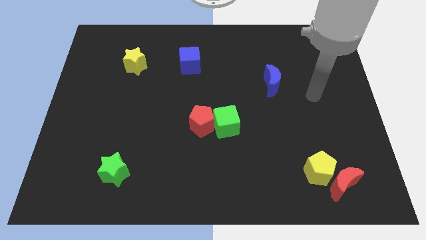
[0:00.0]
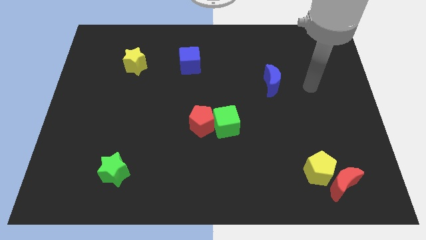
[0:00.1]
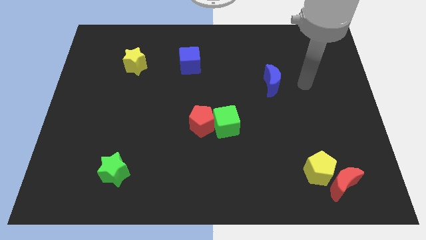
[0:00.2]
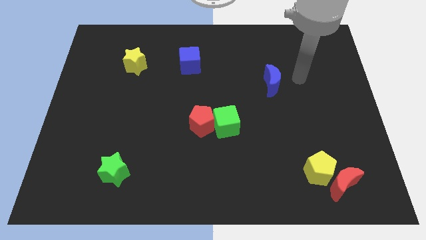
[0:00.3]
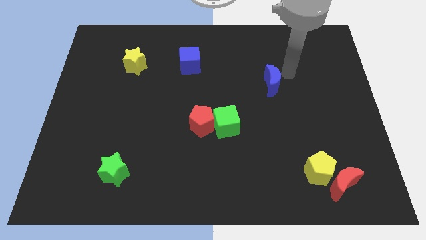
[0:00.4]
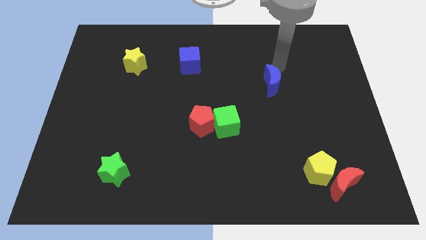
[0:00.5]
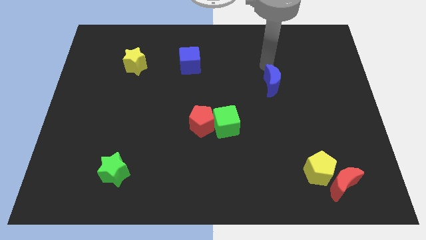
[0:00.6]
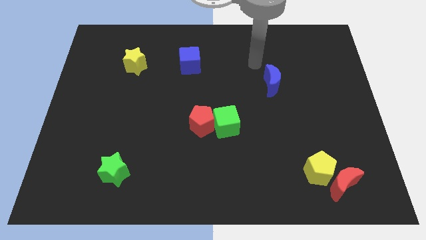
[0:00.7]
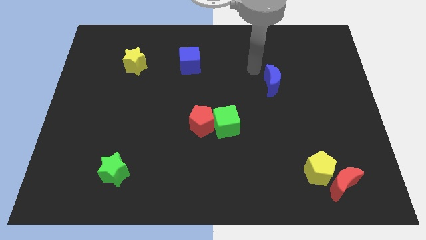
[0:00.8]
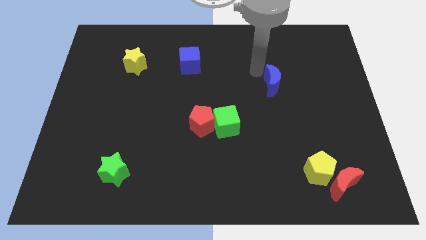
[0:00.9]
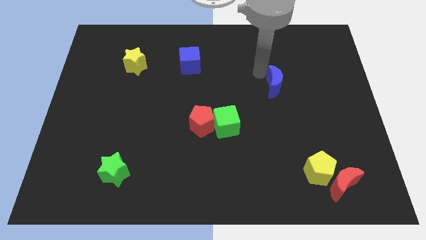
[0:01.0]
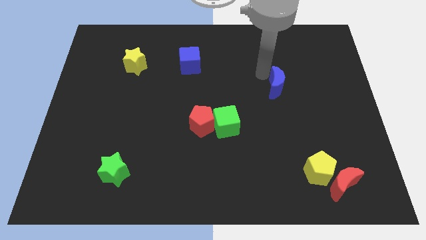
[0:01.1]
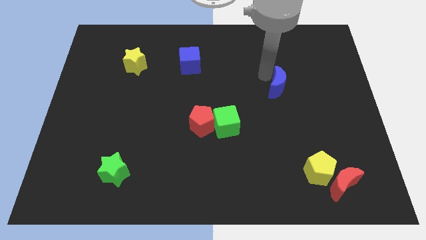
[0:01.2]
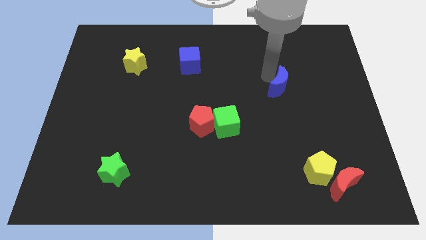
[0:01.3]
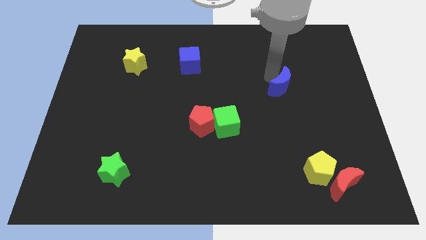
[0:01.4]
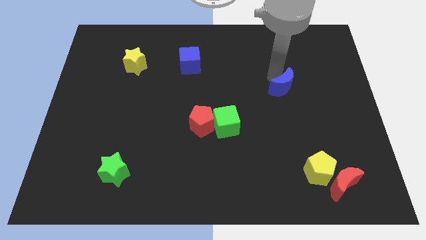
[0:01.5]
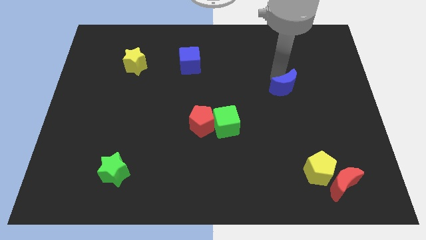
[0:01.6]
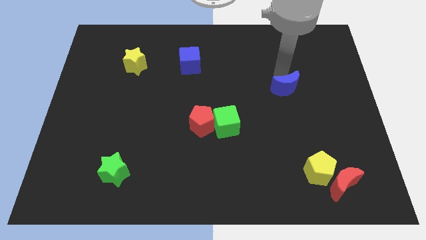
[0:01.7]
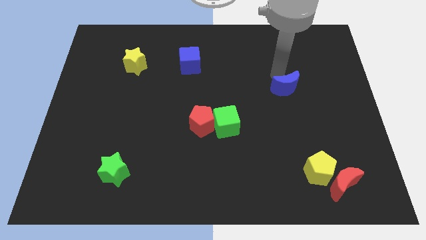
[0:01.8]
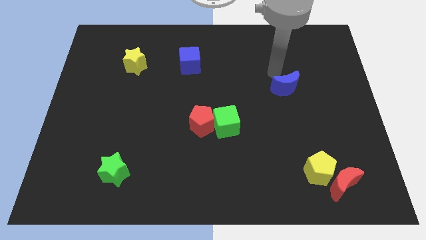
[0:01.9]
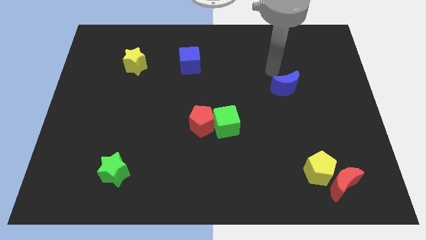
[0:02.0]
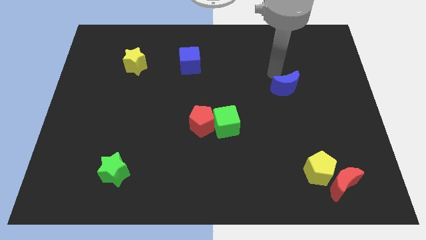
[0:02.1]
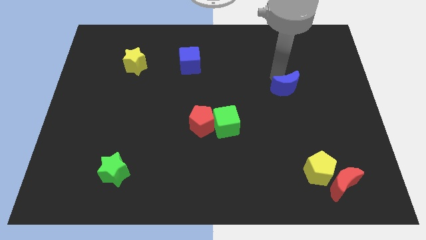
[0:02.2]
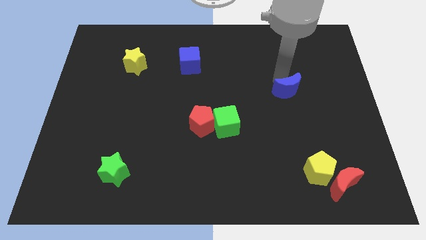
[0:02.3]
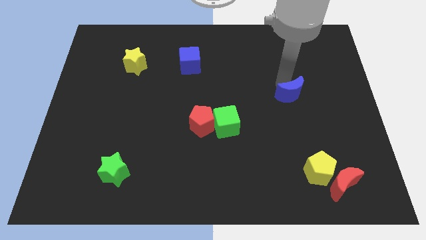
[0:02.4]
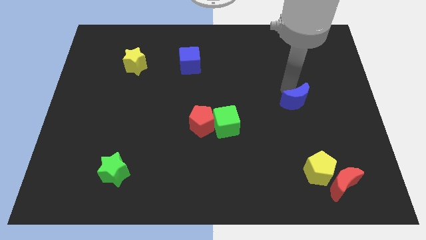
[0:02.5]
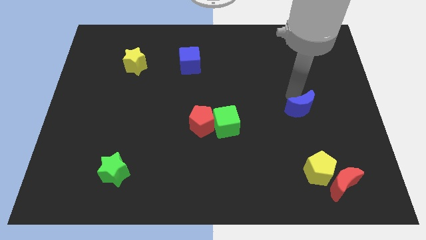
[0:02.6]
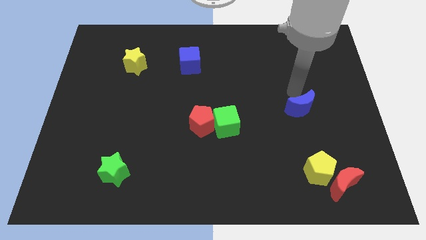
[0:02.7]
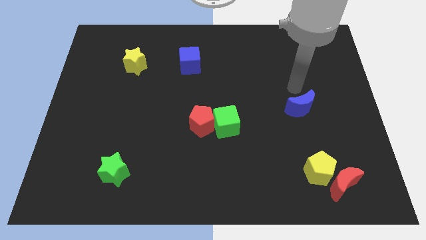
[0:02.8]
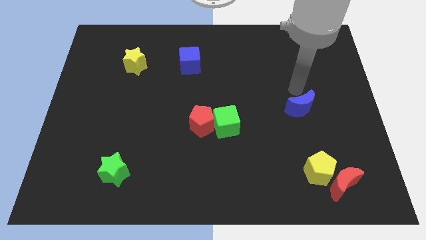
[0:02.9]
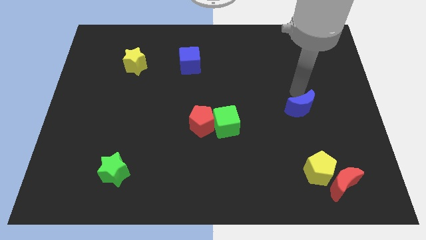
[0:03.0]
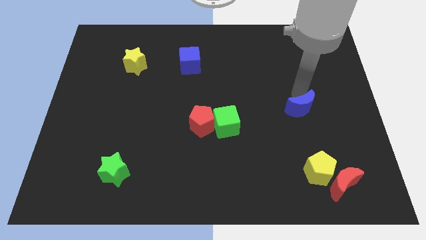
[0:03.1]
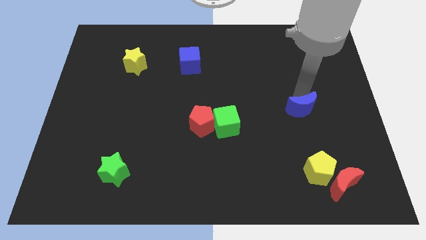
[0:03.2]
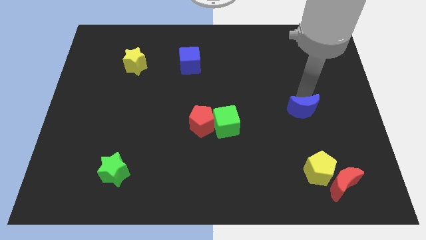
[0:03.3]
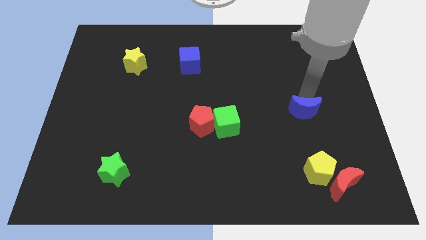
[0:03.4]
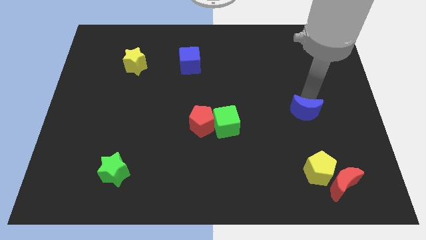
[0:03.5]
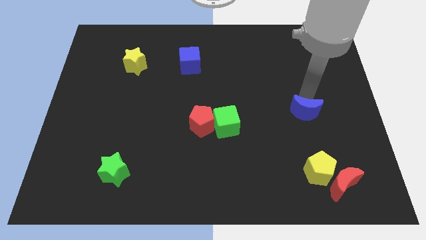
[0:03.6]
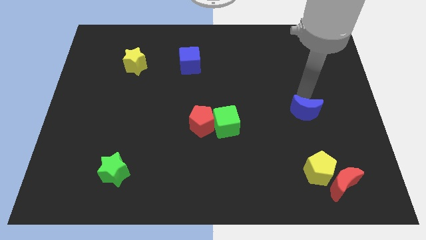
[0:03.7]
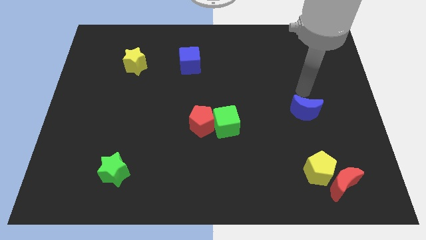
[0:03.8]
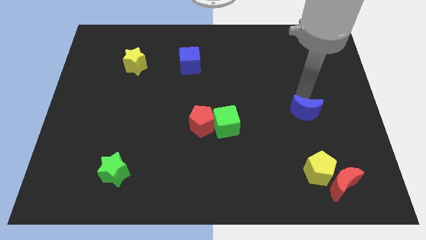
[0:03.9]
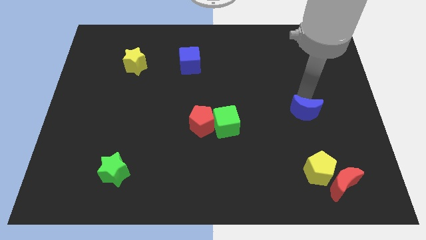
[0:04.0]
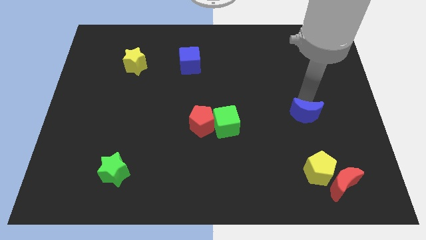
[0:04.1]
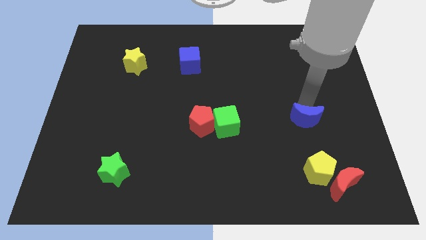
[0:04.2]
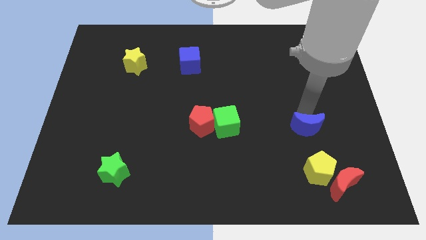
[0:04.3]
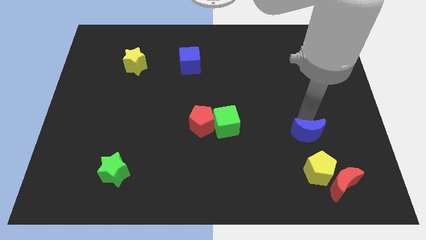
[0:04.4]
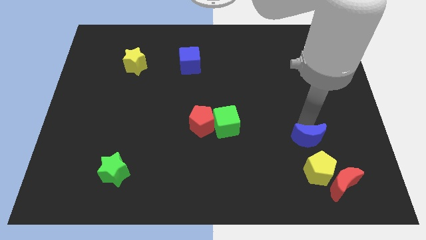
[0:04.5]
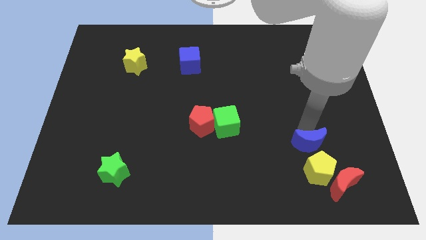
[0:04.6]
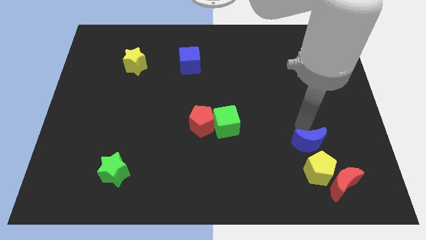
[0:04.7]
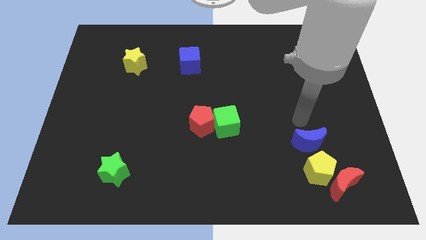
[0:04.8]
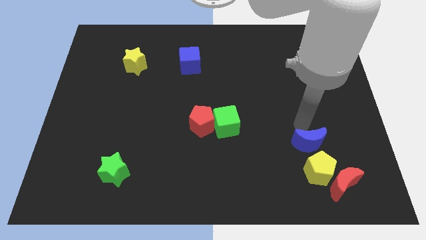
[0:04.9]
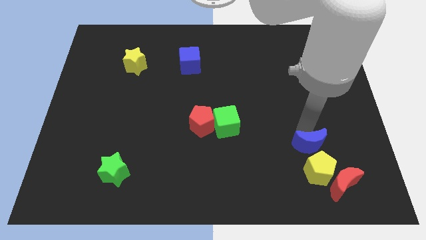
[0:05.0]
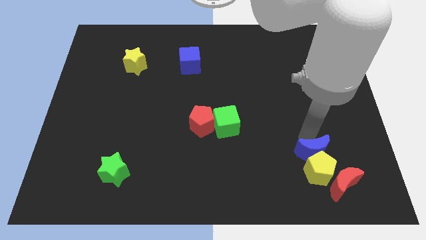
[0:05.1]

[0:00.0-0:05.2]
push the blue moon next to the yellow pentagon

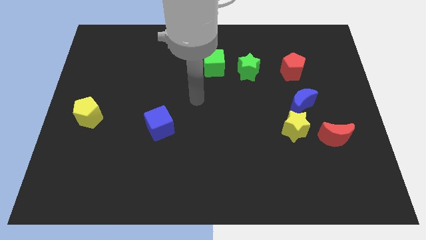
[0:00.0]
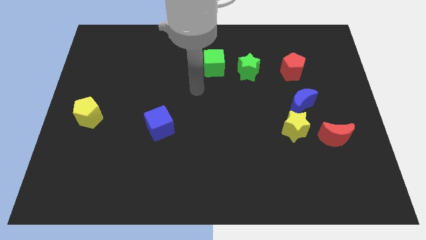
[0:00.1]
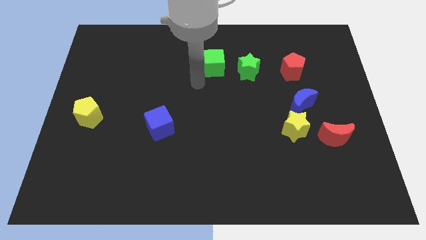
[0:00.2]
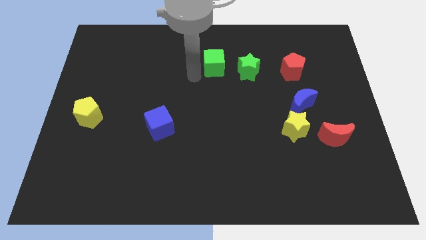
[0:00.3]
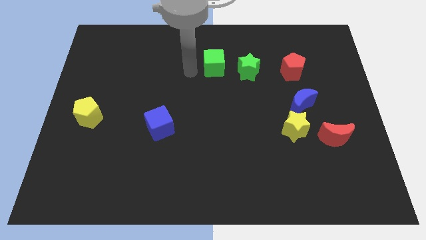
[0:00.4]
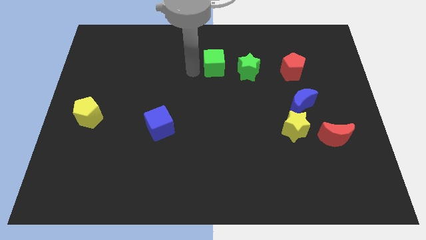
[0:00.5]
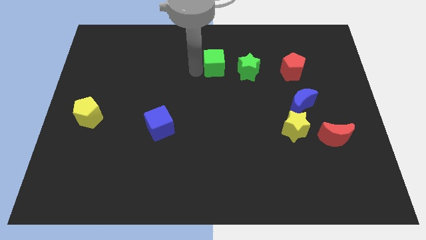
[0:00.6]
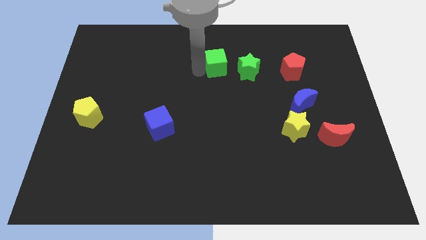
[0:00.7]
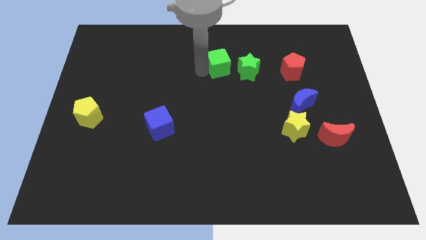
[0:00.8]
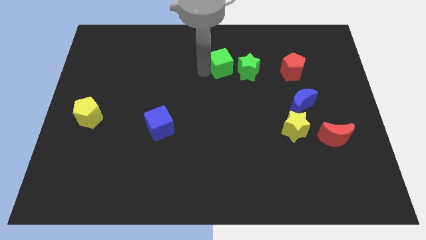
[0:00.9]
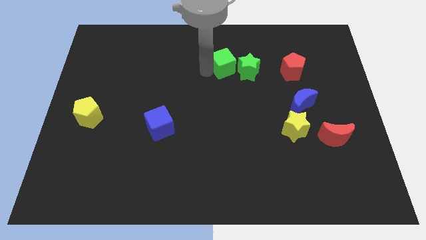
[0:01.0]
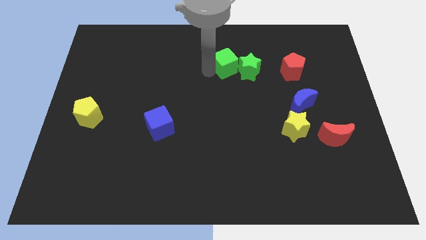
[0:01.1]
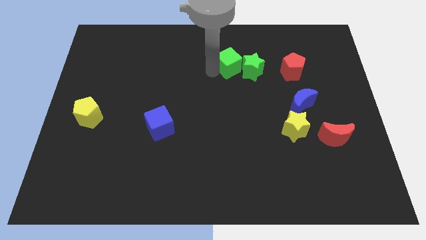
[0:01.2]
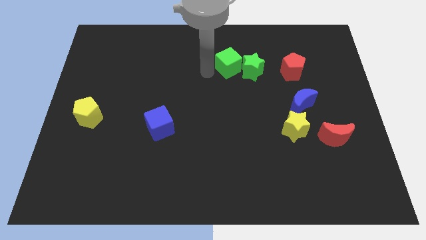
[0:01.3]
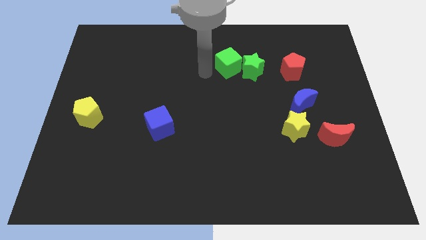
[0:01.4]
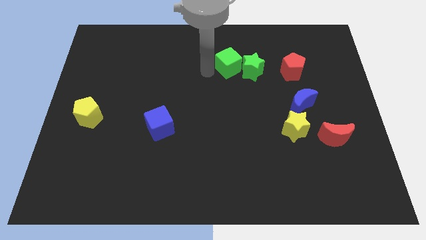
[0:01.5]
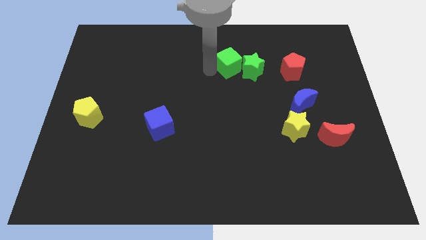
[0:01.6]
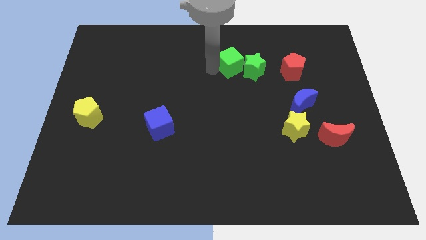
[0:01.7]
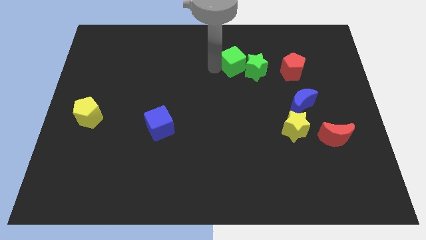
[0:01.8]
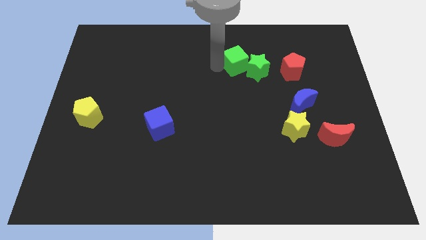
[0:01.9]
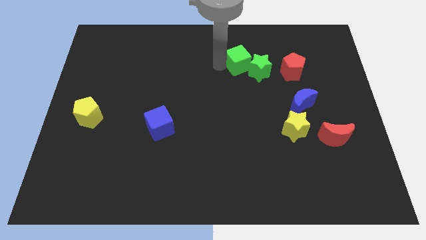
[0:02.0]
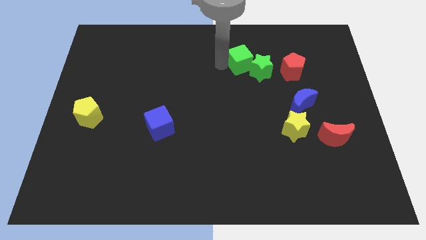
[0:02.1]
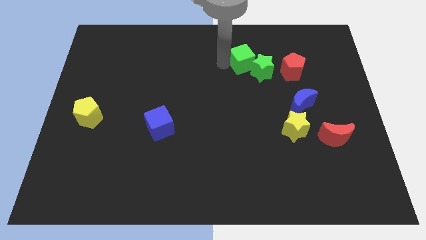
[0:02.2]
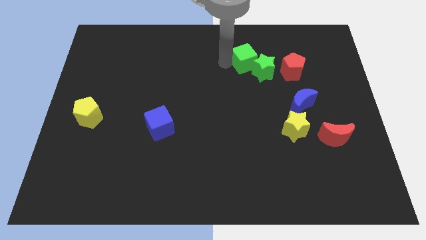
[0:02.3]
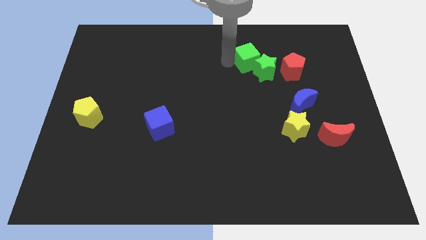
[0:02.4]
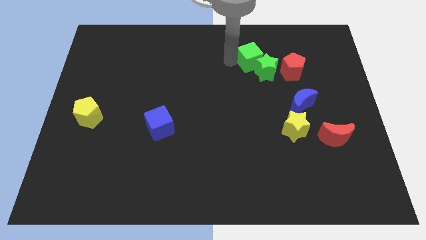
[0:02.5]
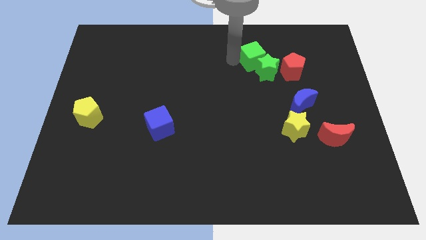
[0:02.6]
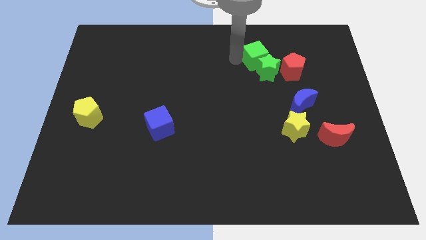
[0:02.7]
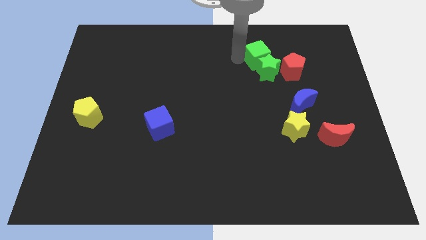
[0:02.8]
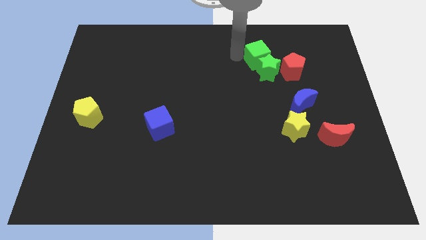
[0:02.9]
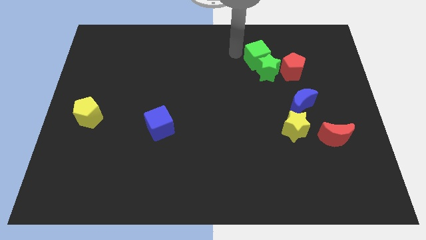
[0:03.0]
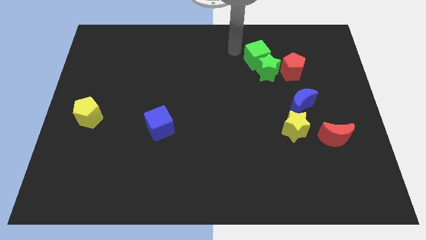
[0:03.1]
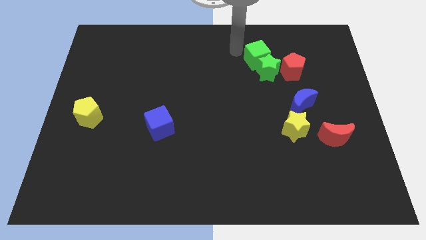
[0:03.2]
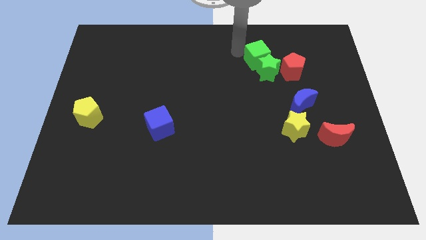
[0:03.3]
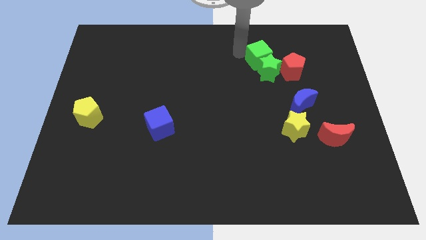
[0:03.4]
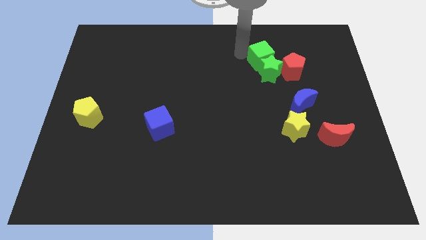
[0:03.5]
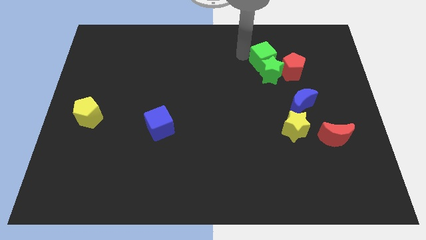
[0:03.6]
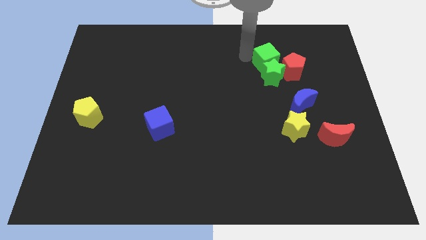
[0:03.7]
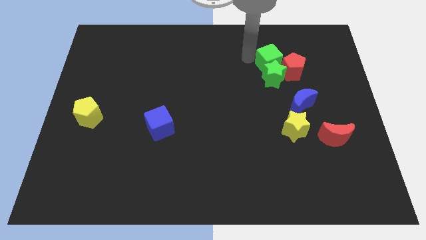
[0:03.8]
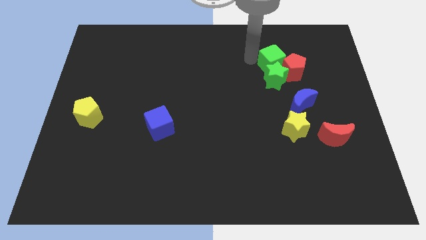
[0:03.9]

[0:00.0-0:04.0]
move the green cube towards the red pentagon
